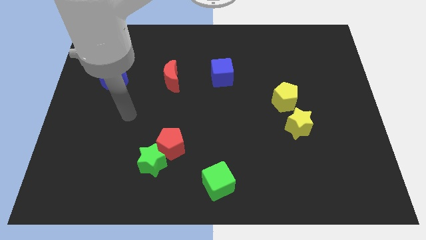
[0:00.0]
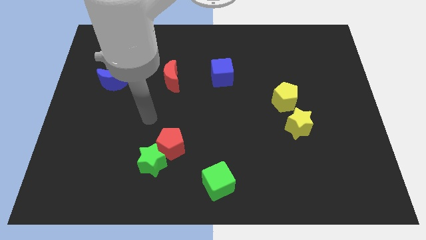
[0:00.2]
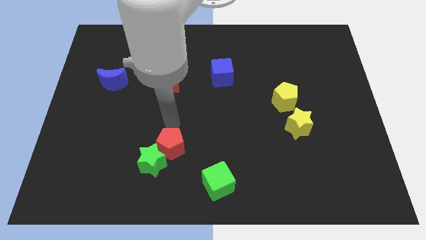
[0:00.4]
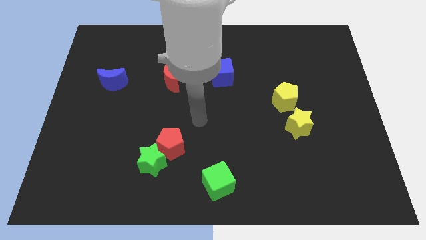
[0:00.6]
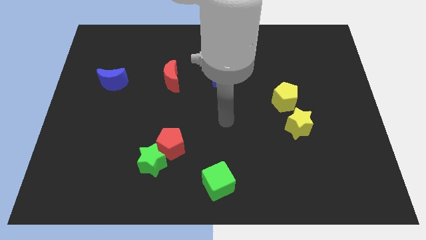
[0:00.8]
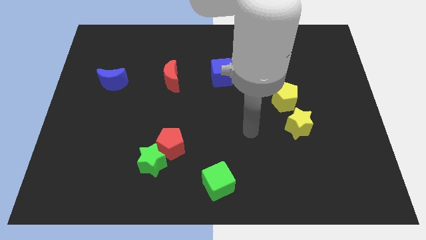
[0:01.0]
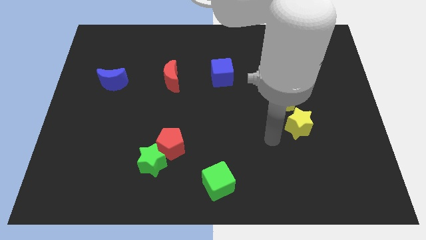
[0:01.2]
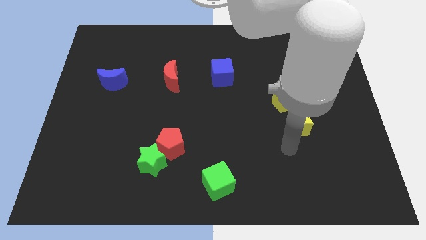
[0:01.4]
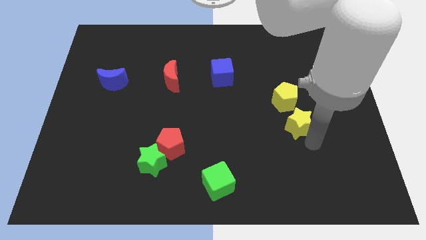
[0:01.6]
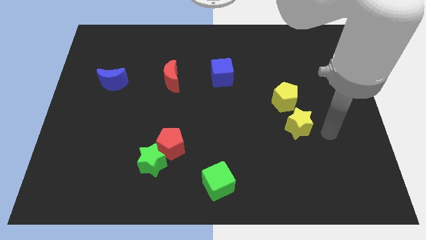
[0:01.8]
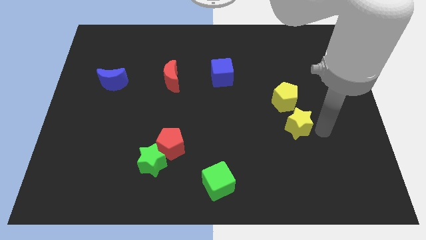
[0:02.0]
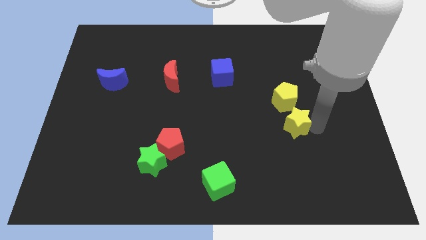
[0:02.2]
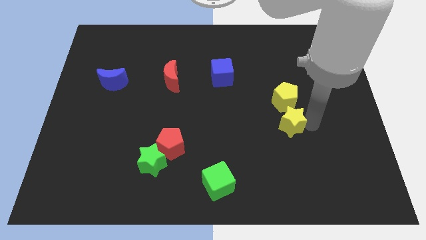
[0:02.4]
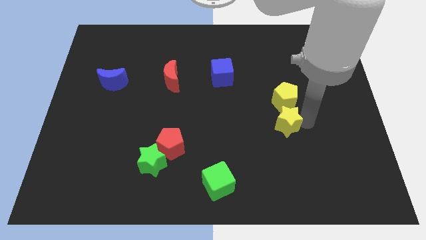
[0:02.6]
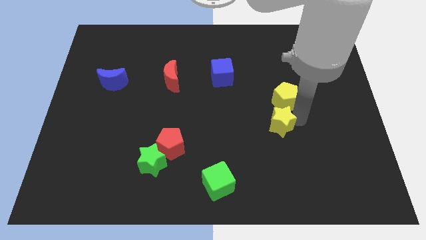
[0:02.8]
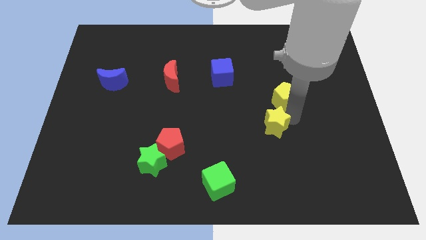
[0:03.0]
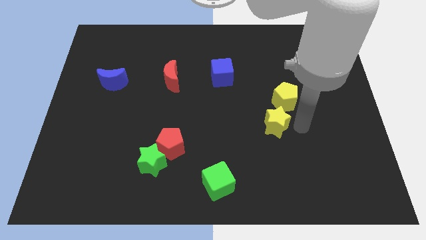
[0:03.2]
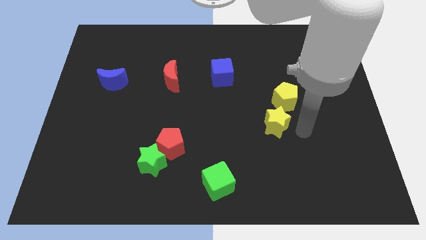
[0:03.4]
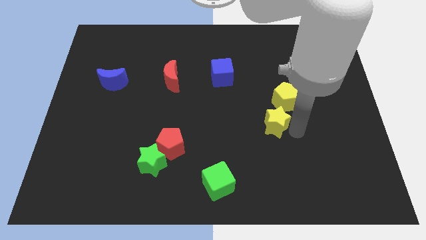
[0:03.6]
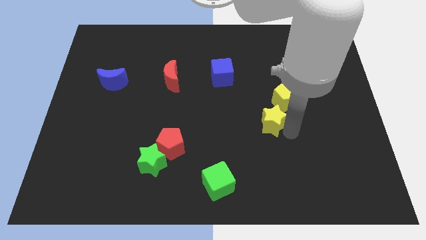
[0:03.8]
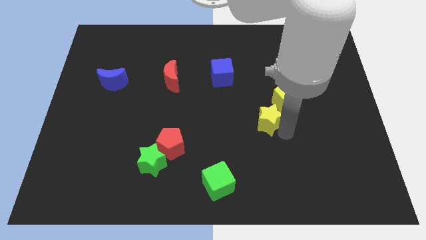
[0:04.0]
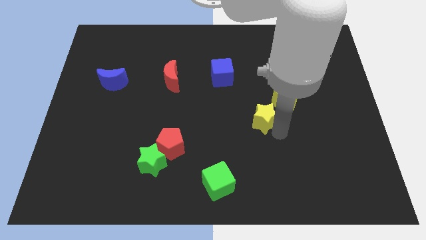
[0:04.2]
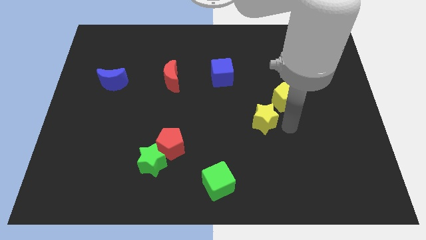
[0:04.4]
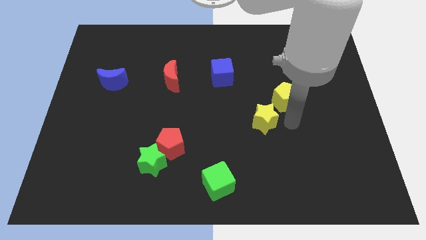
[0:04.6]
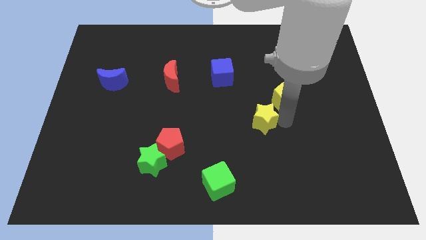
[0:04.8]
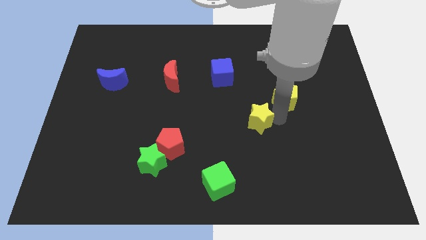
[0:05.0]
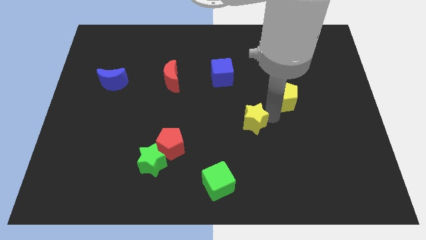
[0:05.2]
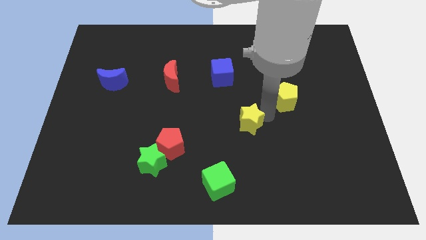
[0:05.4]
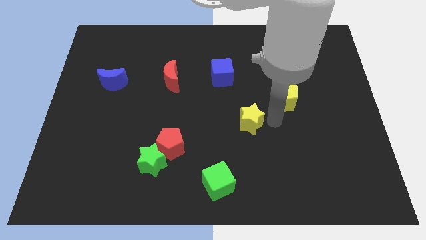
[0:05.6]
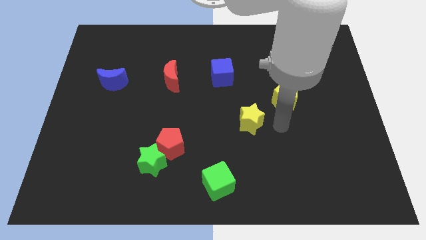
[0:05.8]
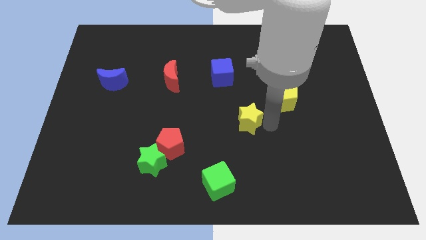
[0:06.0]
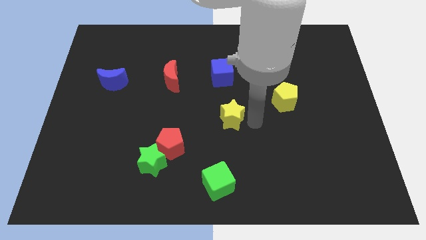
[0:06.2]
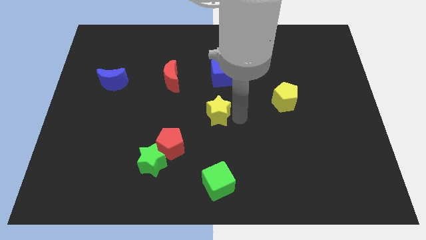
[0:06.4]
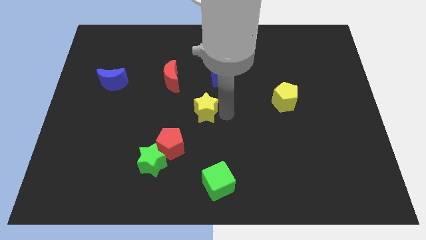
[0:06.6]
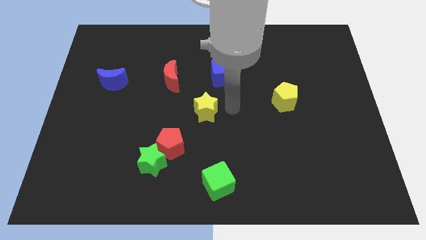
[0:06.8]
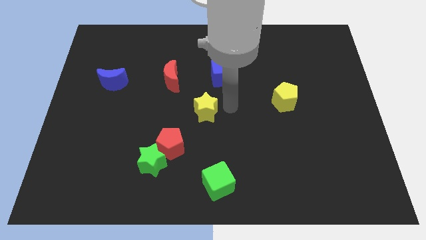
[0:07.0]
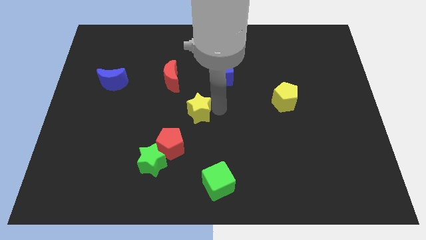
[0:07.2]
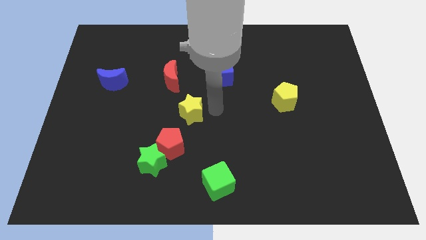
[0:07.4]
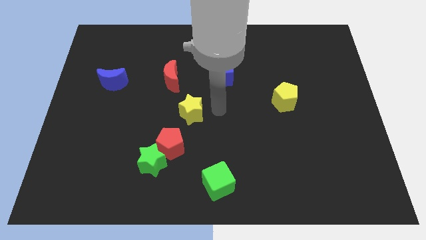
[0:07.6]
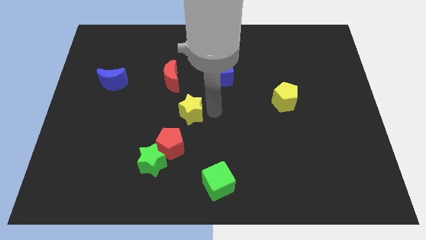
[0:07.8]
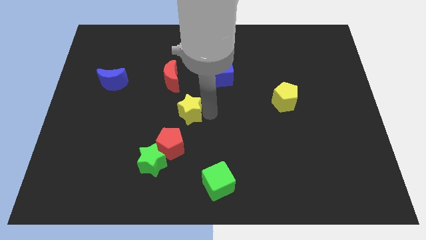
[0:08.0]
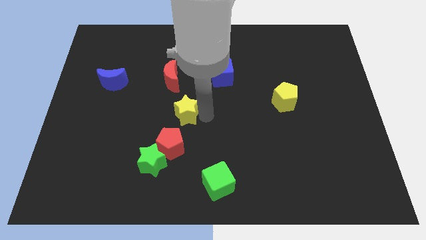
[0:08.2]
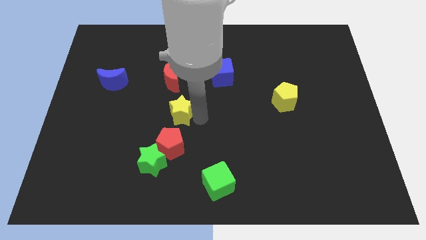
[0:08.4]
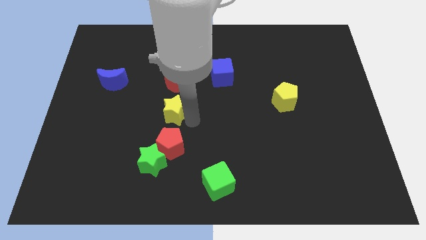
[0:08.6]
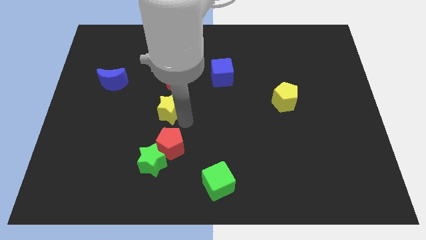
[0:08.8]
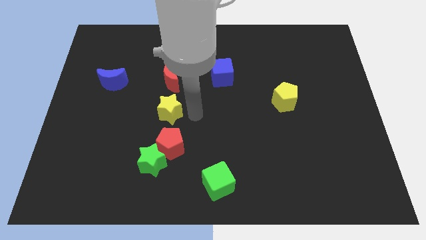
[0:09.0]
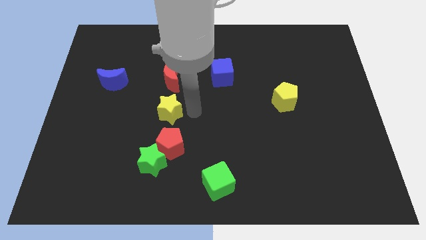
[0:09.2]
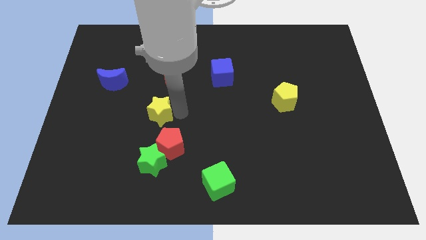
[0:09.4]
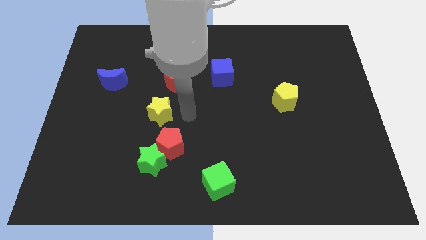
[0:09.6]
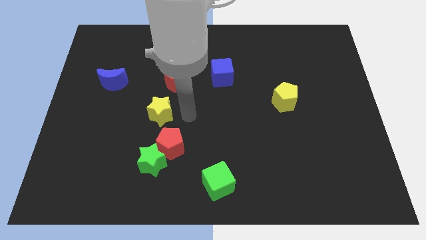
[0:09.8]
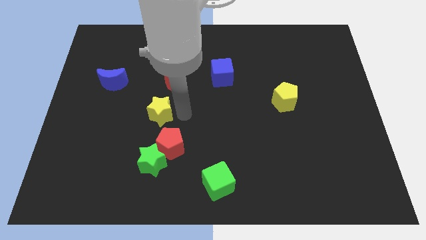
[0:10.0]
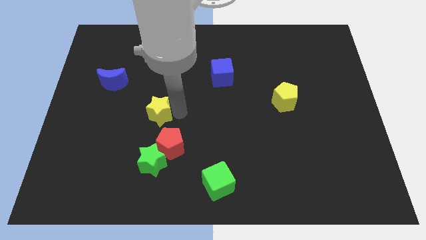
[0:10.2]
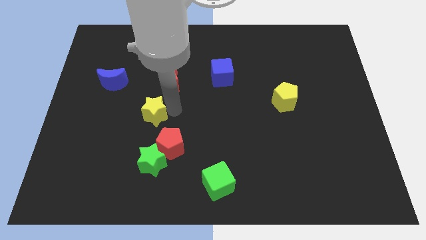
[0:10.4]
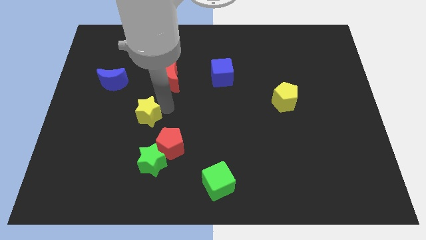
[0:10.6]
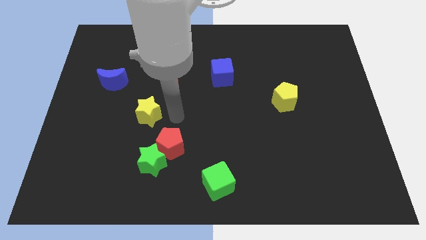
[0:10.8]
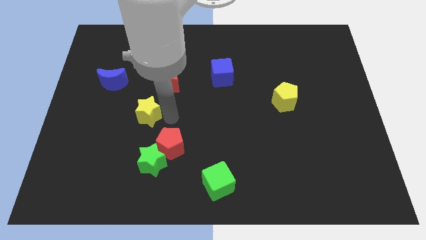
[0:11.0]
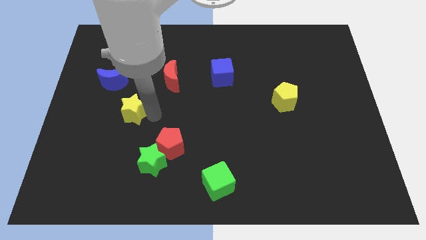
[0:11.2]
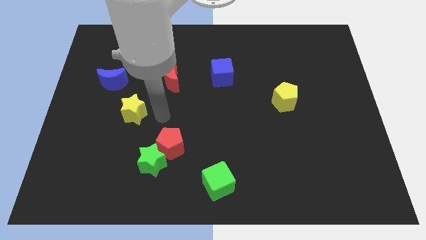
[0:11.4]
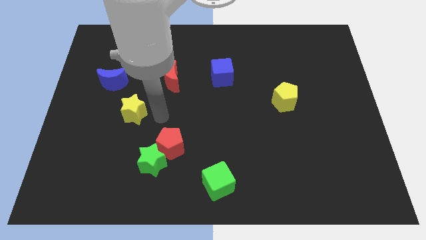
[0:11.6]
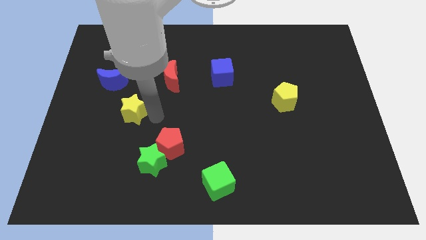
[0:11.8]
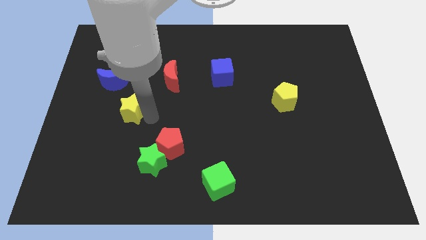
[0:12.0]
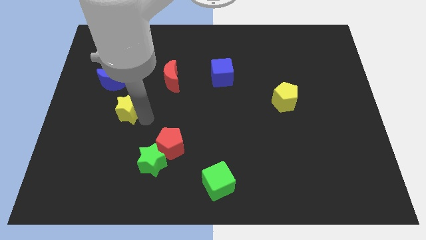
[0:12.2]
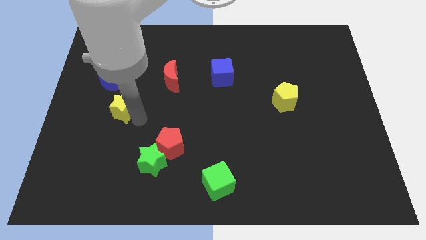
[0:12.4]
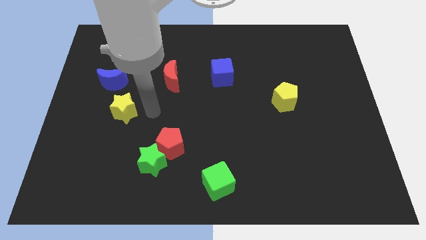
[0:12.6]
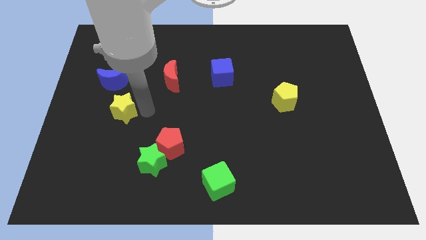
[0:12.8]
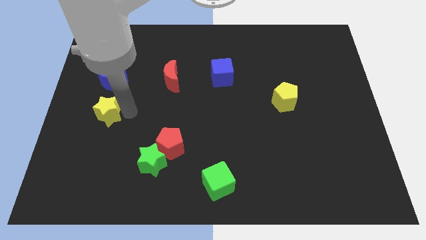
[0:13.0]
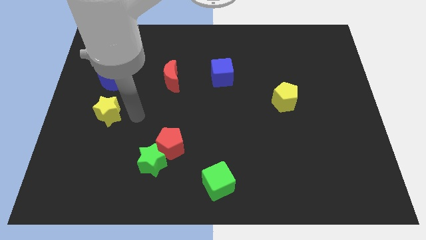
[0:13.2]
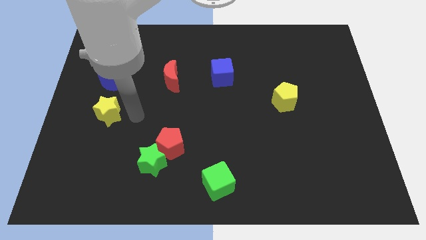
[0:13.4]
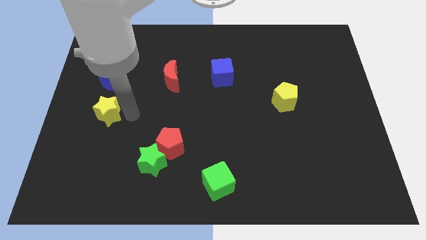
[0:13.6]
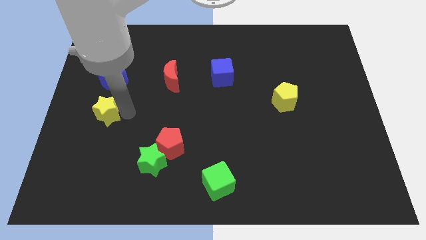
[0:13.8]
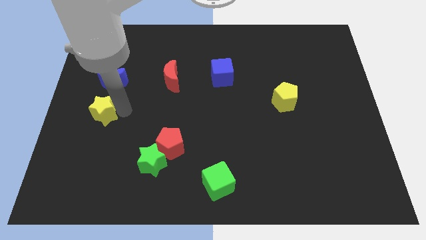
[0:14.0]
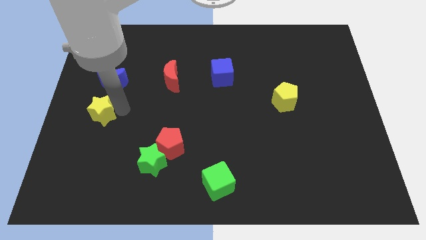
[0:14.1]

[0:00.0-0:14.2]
push the yellow star to the left side

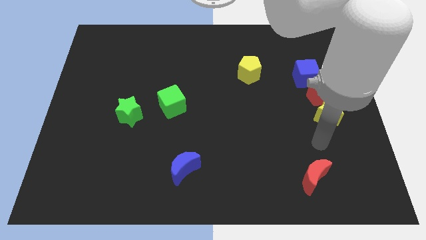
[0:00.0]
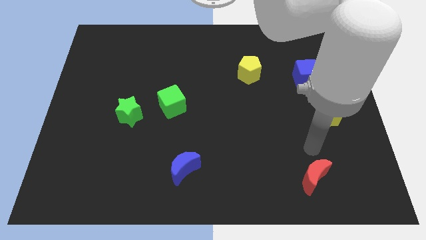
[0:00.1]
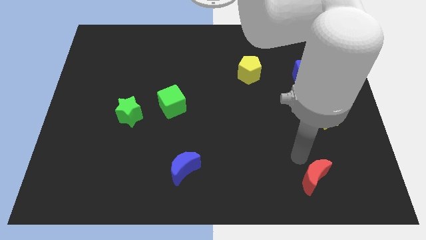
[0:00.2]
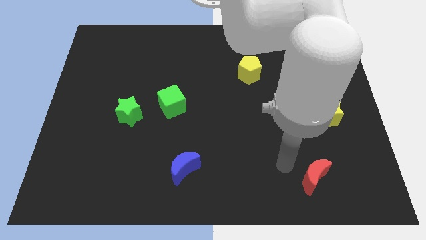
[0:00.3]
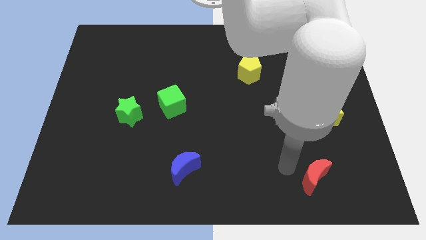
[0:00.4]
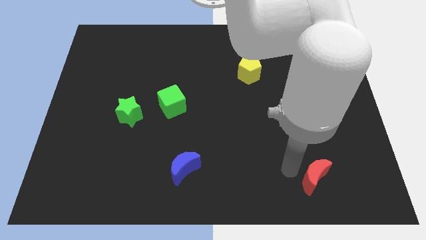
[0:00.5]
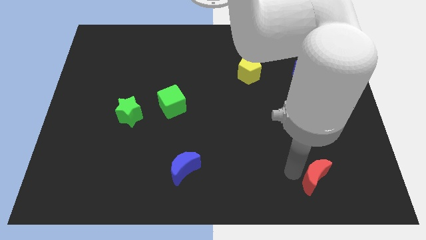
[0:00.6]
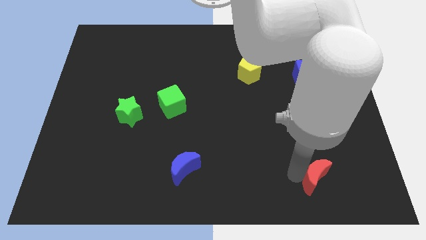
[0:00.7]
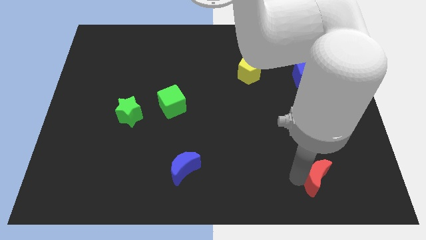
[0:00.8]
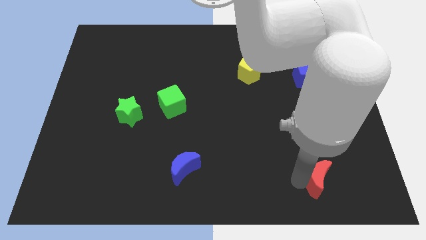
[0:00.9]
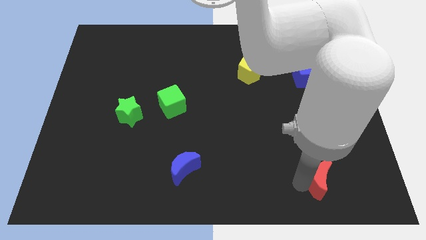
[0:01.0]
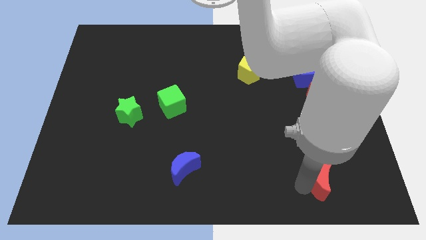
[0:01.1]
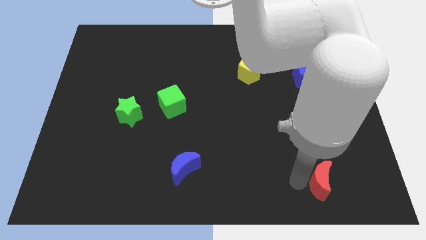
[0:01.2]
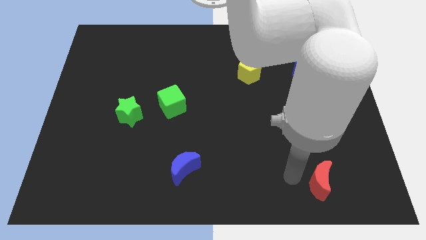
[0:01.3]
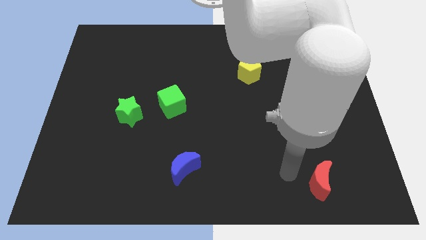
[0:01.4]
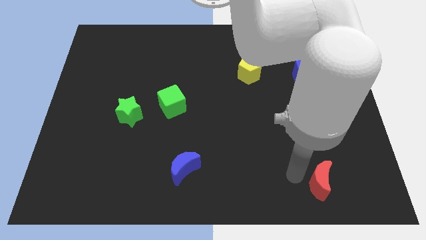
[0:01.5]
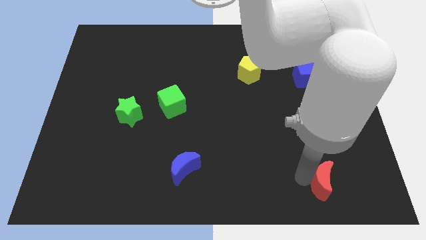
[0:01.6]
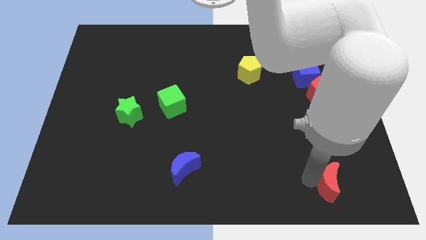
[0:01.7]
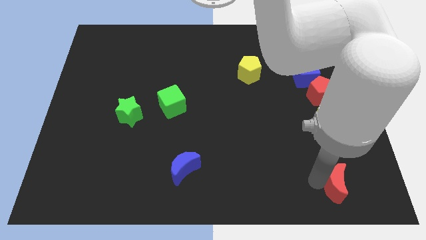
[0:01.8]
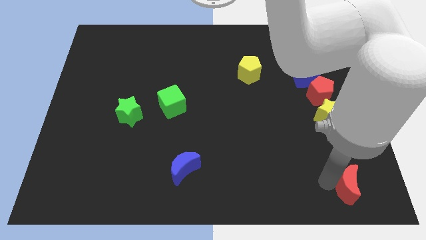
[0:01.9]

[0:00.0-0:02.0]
put the red moon to the bottom right of the board
